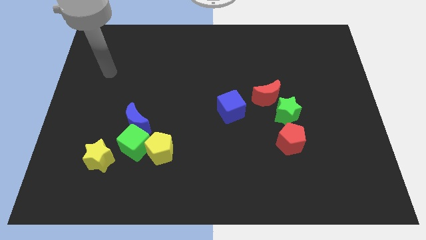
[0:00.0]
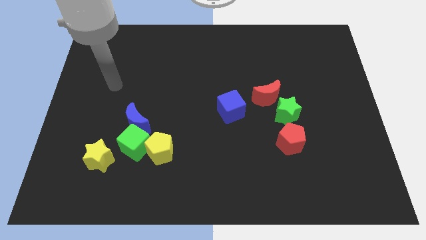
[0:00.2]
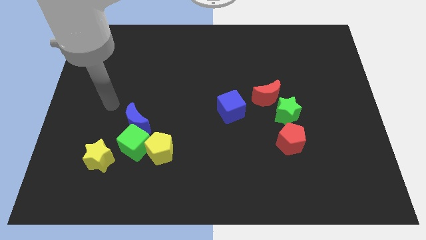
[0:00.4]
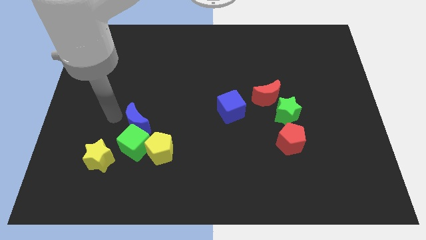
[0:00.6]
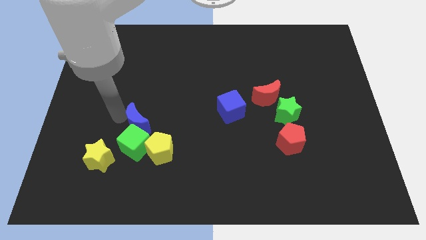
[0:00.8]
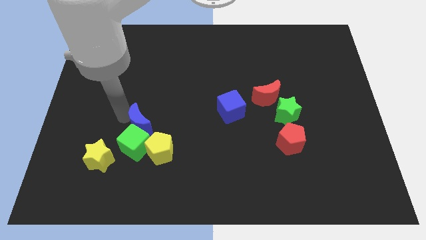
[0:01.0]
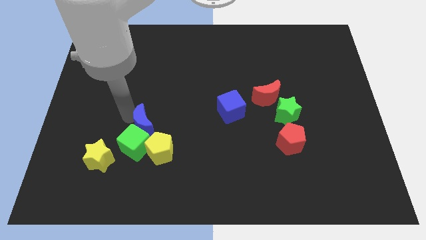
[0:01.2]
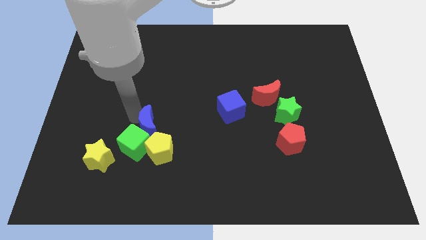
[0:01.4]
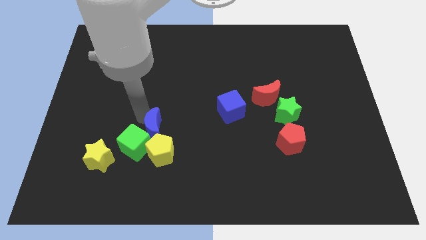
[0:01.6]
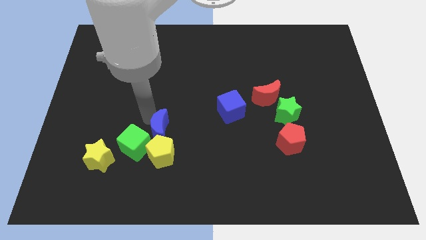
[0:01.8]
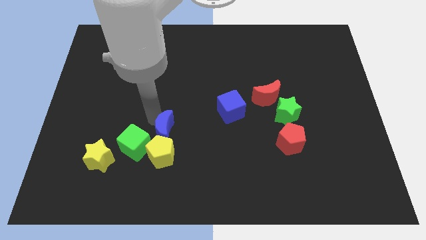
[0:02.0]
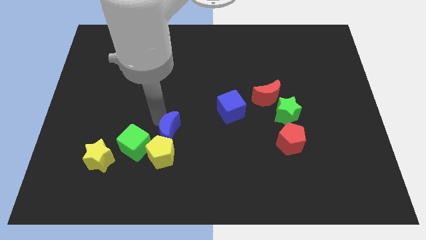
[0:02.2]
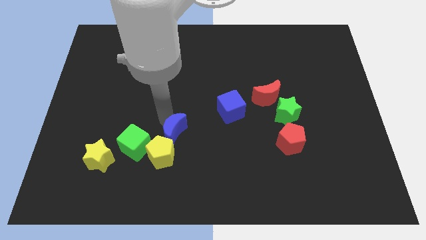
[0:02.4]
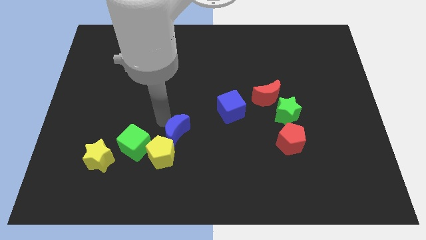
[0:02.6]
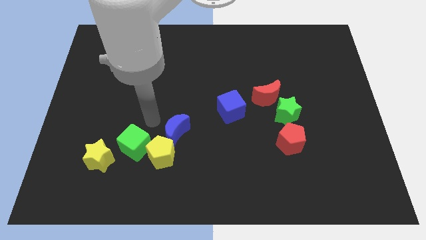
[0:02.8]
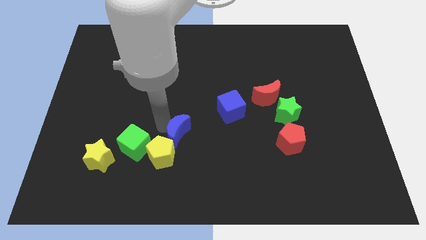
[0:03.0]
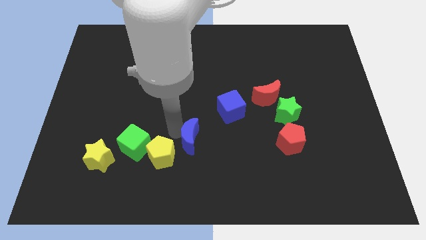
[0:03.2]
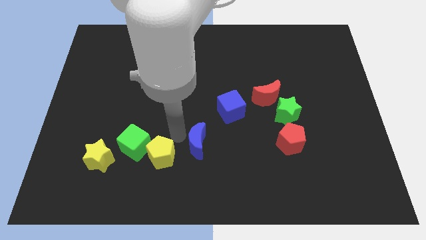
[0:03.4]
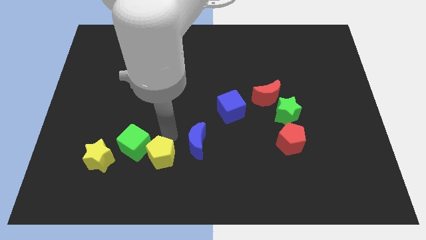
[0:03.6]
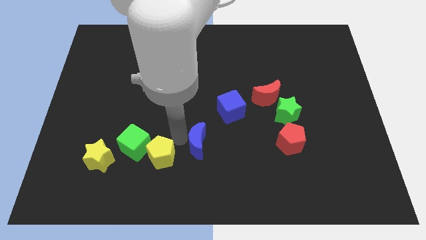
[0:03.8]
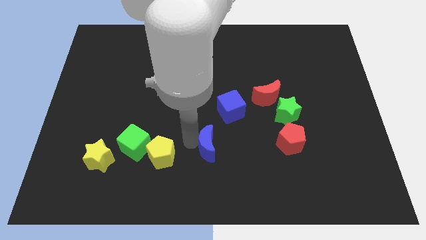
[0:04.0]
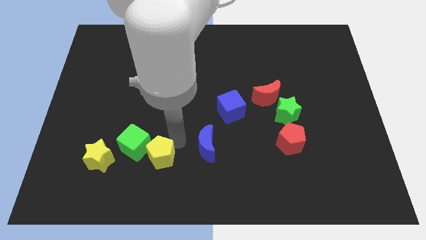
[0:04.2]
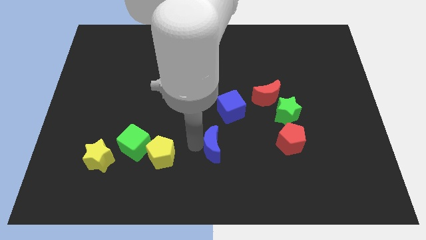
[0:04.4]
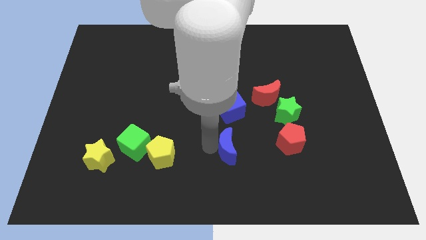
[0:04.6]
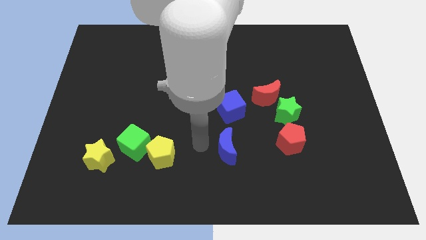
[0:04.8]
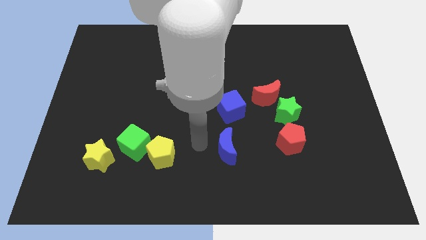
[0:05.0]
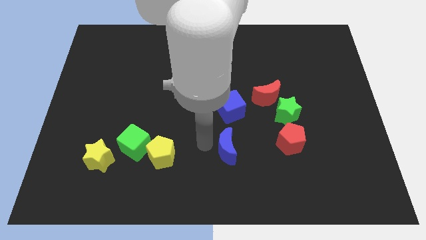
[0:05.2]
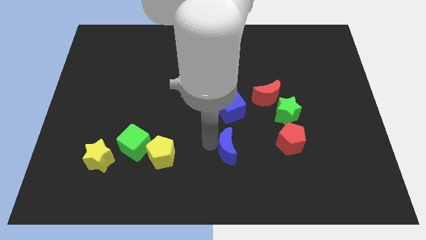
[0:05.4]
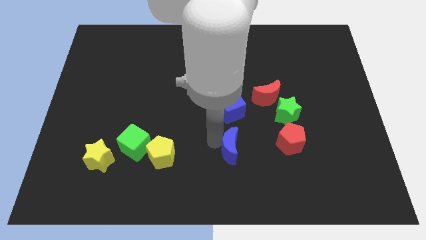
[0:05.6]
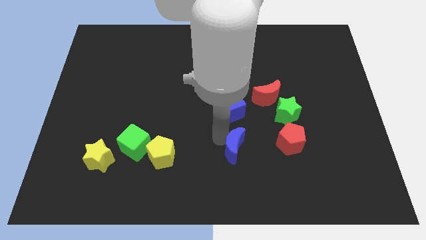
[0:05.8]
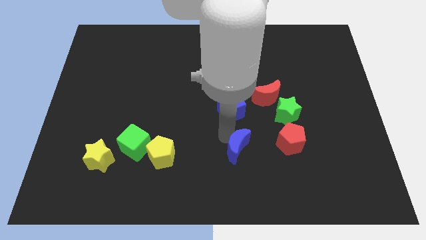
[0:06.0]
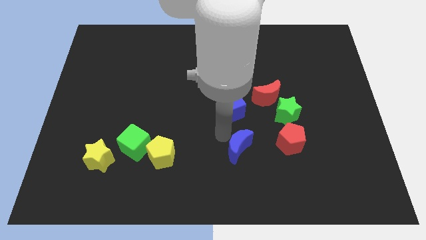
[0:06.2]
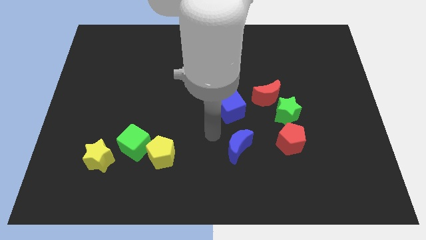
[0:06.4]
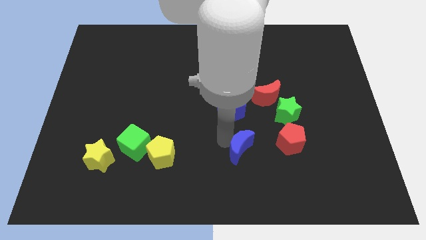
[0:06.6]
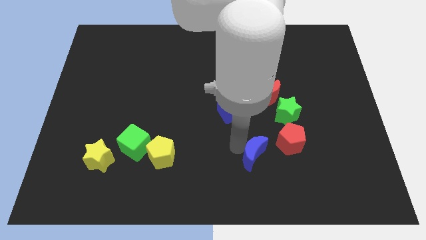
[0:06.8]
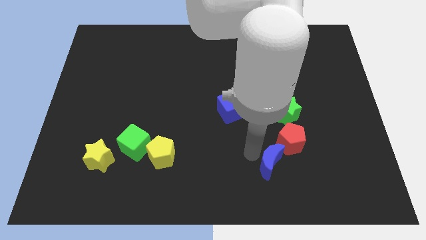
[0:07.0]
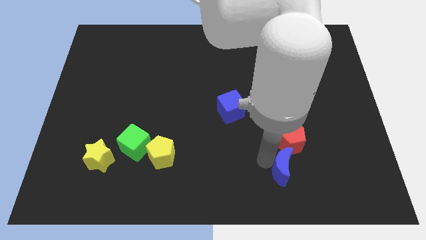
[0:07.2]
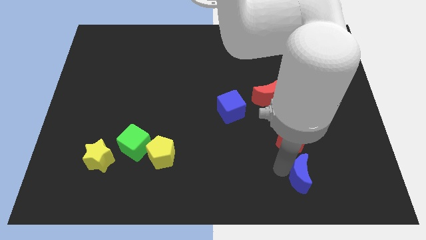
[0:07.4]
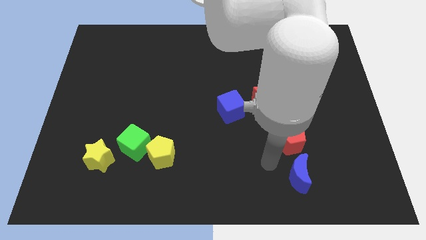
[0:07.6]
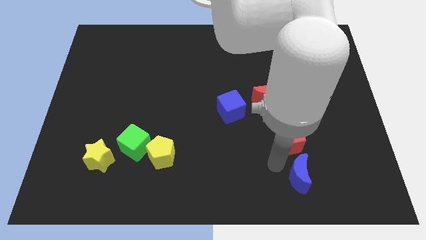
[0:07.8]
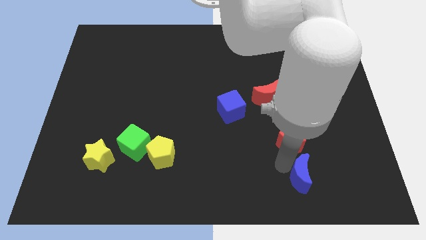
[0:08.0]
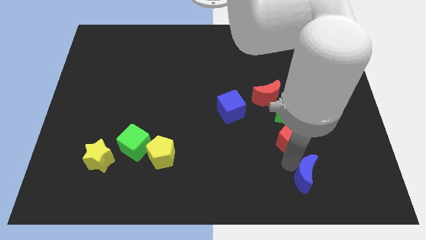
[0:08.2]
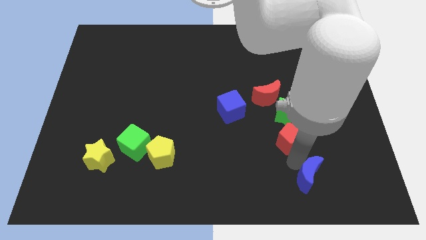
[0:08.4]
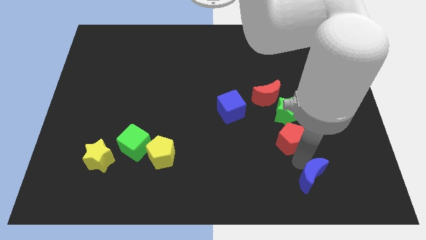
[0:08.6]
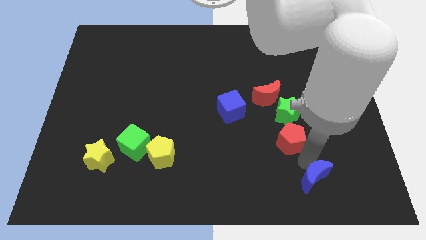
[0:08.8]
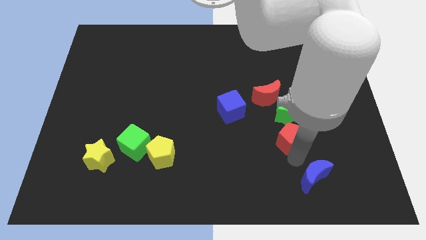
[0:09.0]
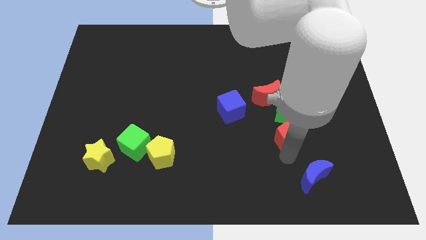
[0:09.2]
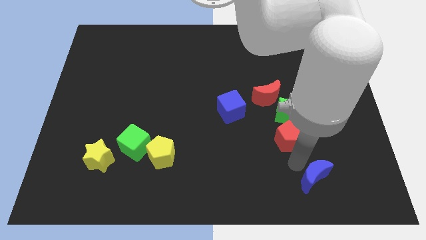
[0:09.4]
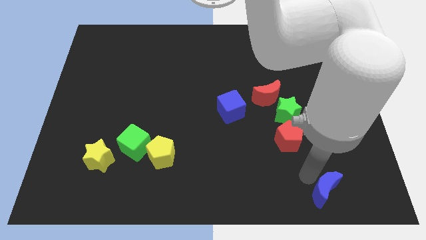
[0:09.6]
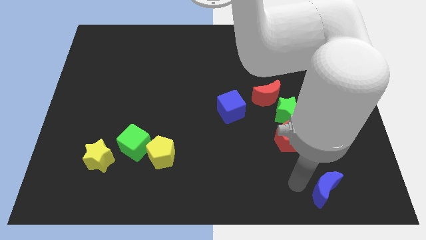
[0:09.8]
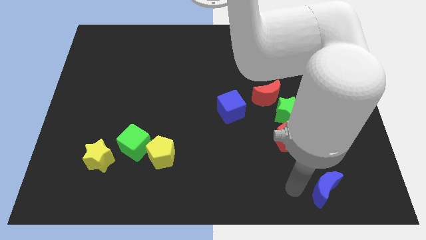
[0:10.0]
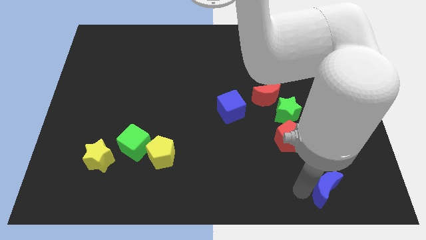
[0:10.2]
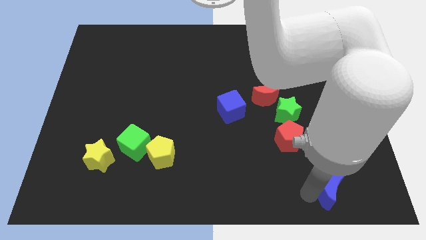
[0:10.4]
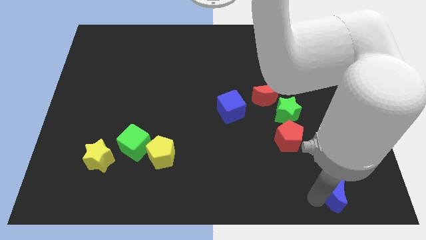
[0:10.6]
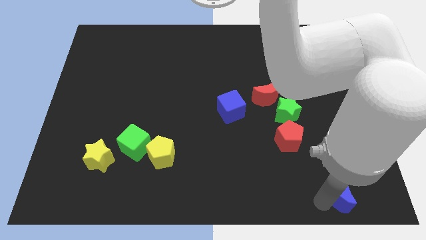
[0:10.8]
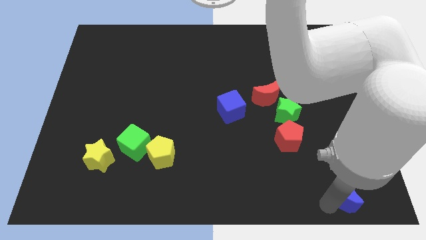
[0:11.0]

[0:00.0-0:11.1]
slide the blue moon to the bottom right

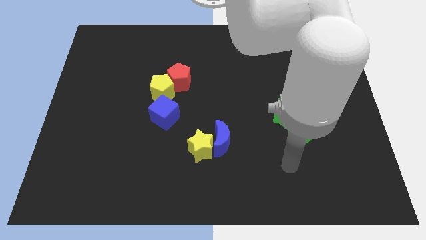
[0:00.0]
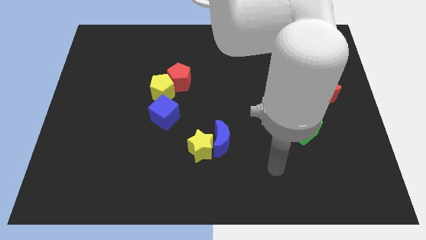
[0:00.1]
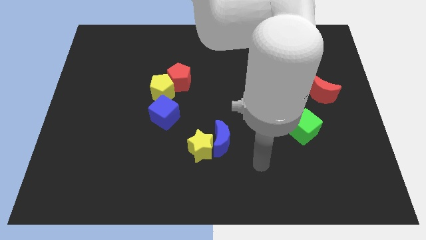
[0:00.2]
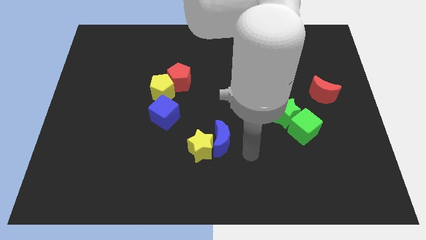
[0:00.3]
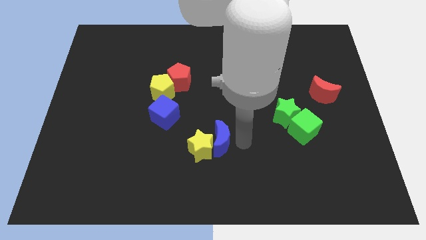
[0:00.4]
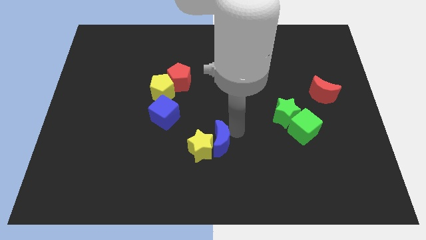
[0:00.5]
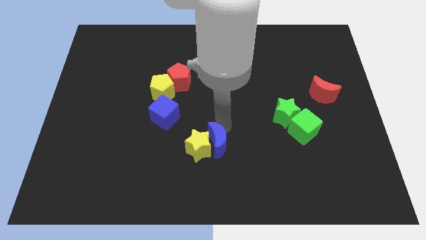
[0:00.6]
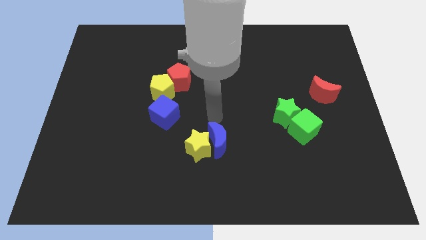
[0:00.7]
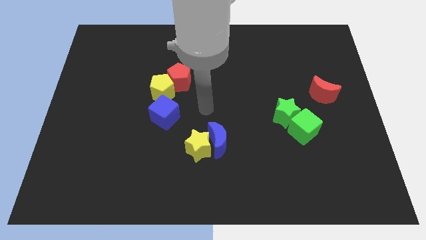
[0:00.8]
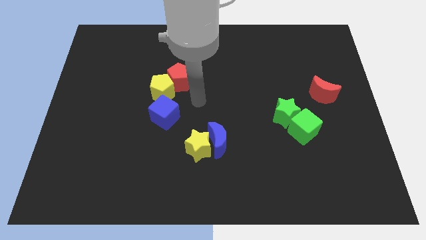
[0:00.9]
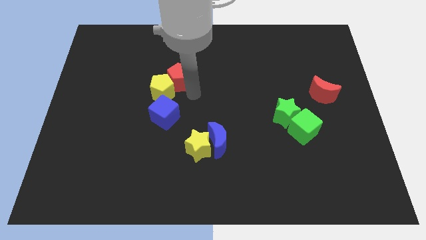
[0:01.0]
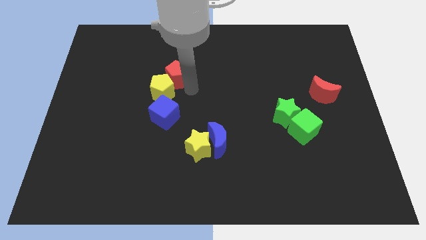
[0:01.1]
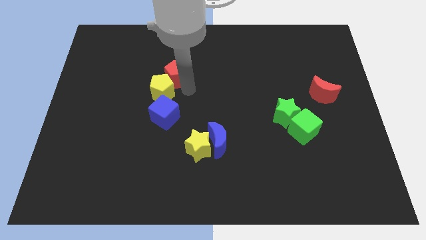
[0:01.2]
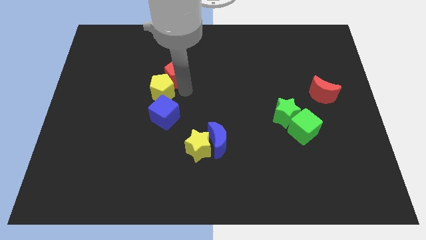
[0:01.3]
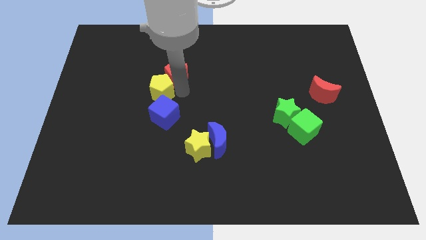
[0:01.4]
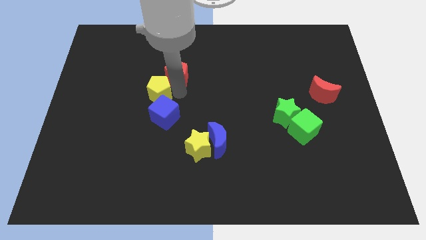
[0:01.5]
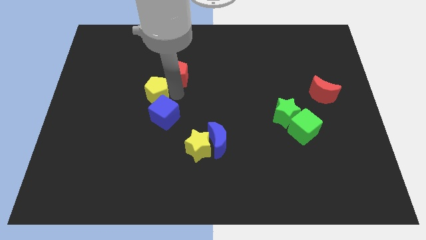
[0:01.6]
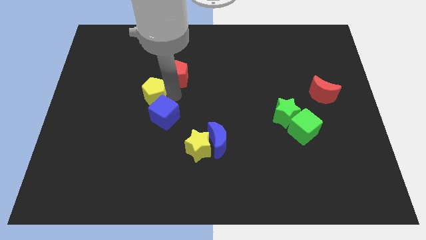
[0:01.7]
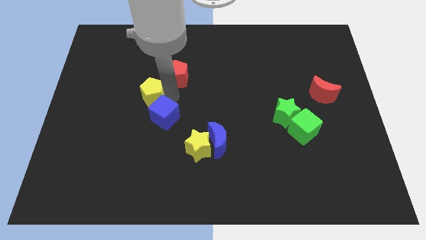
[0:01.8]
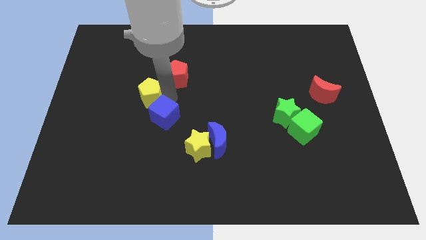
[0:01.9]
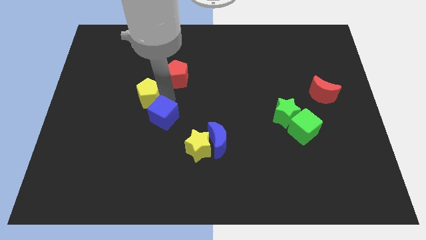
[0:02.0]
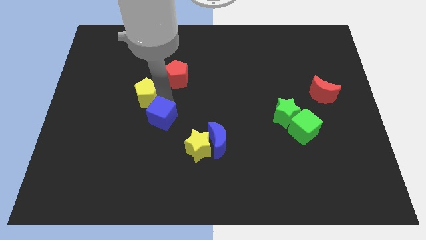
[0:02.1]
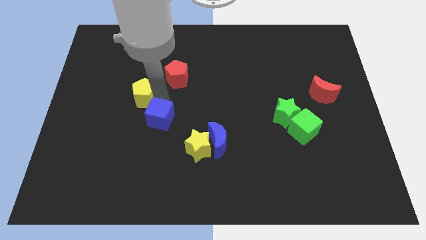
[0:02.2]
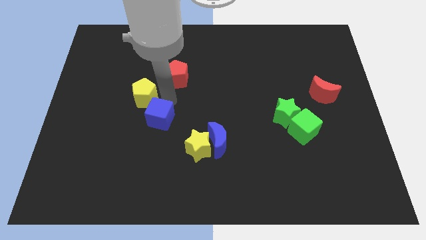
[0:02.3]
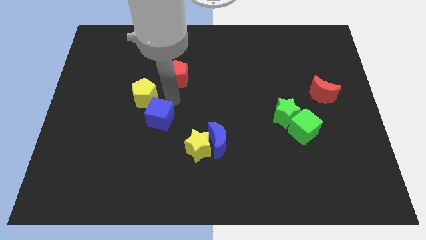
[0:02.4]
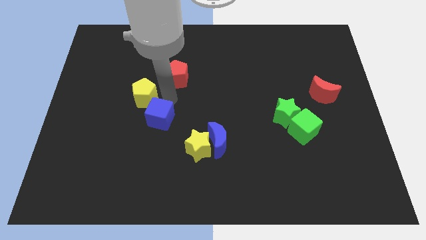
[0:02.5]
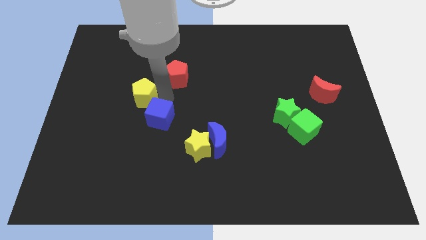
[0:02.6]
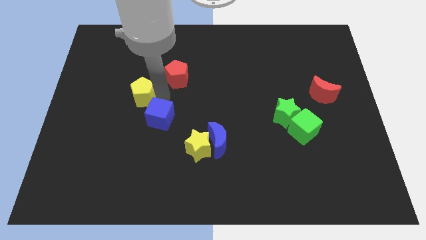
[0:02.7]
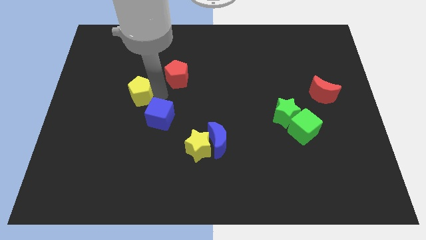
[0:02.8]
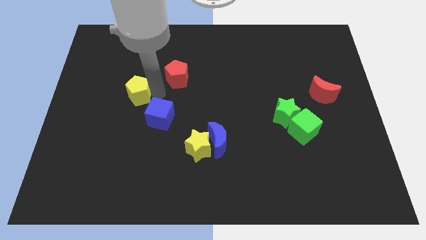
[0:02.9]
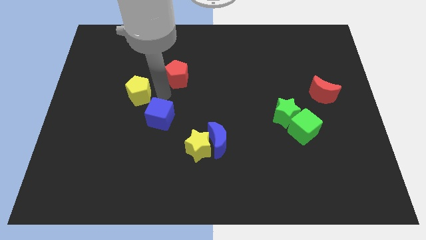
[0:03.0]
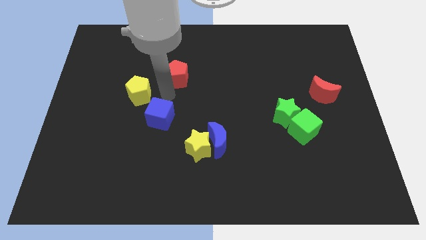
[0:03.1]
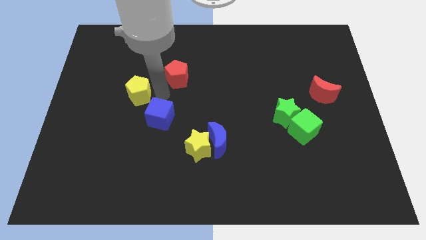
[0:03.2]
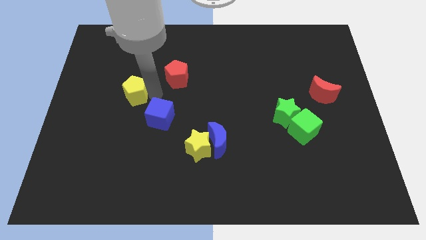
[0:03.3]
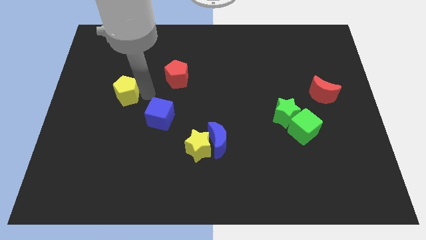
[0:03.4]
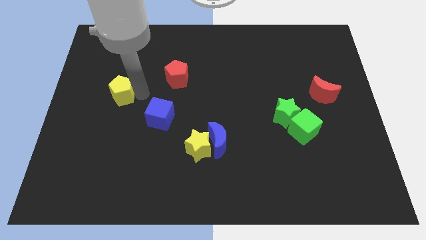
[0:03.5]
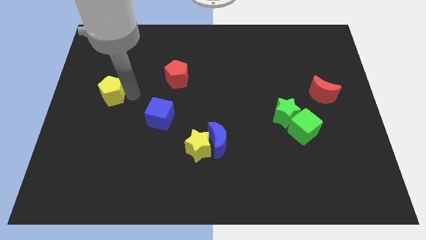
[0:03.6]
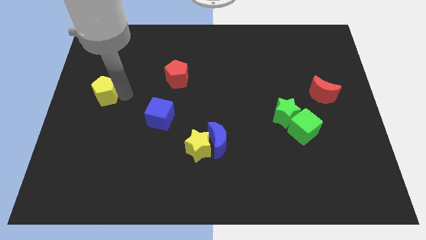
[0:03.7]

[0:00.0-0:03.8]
put the yellow pentagon to the center left
